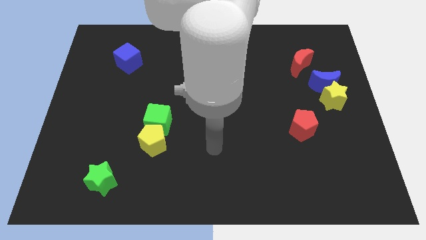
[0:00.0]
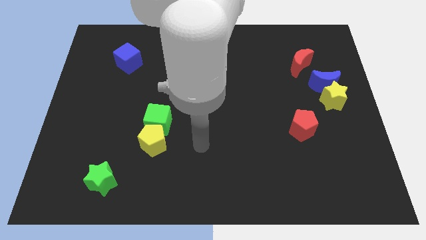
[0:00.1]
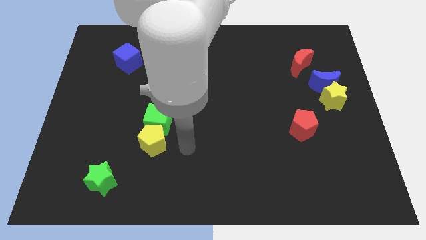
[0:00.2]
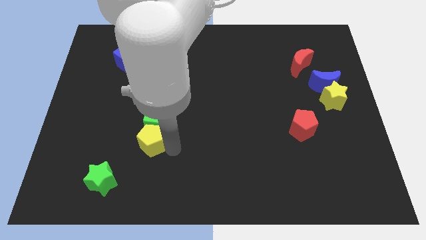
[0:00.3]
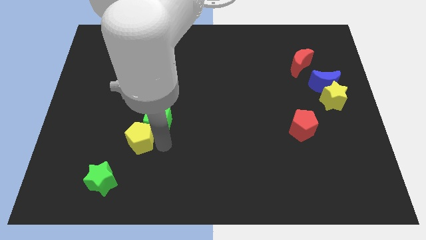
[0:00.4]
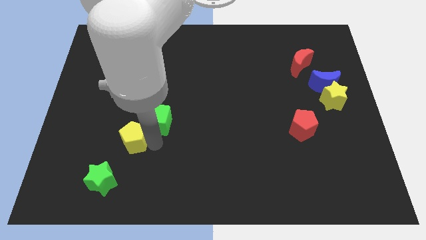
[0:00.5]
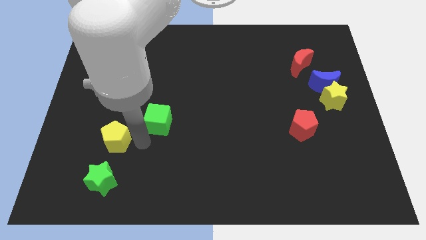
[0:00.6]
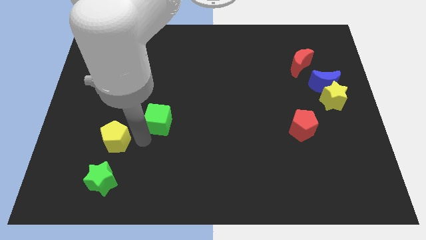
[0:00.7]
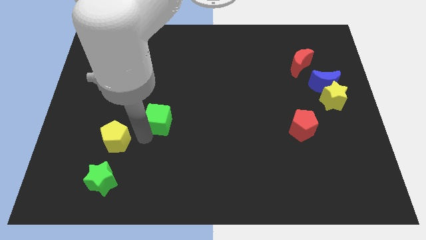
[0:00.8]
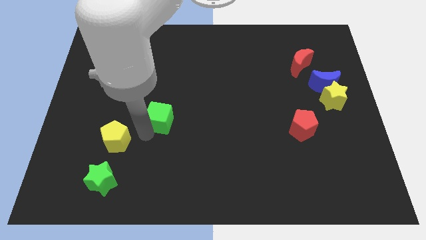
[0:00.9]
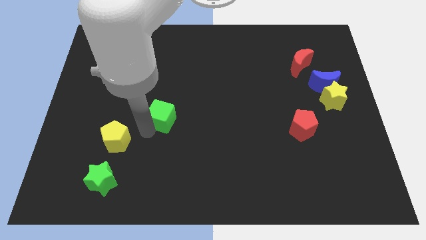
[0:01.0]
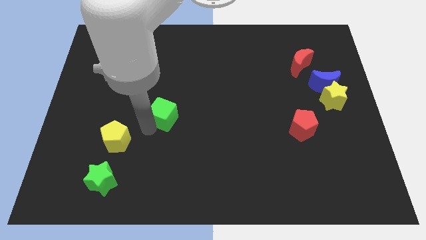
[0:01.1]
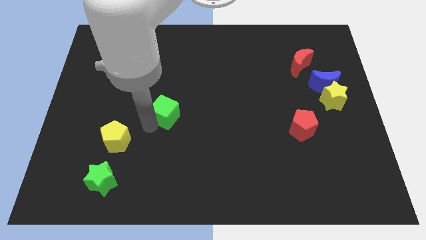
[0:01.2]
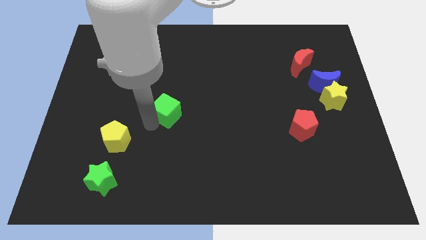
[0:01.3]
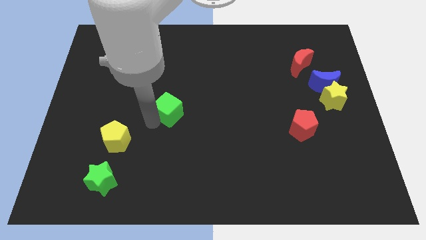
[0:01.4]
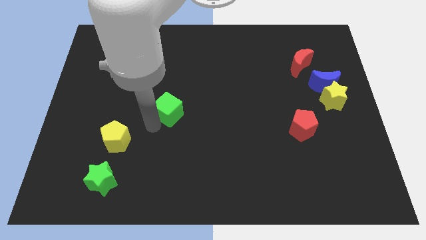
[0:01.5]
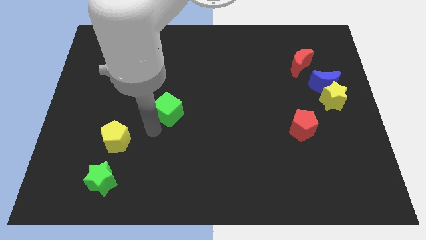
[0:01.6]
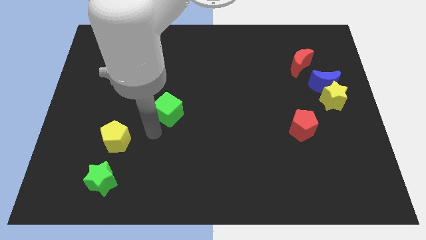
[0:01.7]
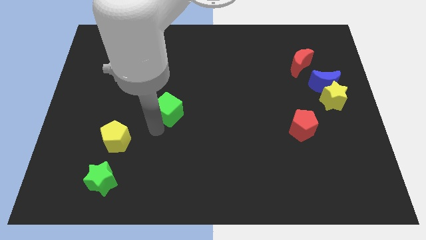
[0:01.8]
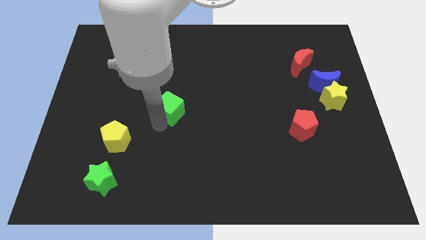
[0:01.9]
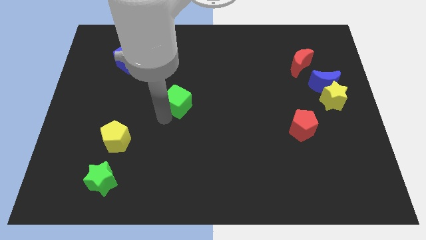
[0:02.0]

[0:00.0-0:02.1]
slide the green cube upwards and then right a little

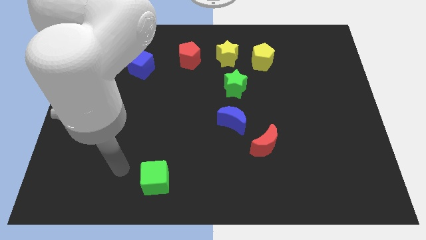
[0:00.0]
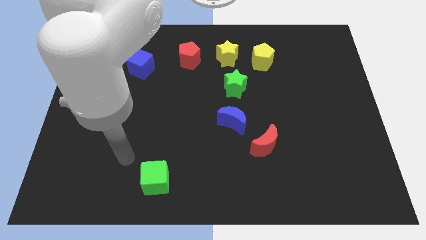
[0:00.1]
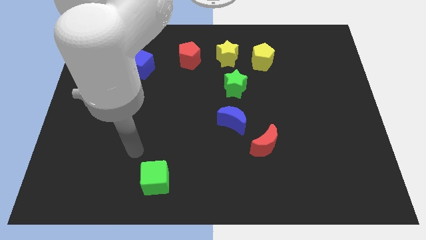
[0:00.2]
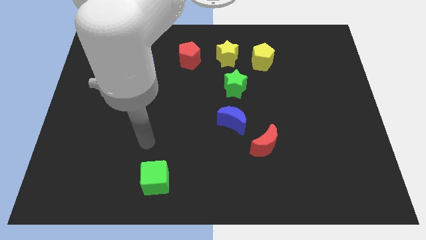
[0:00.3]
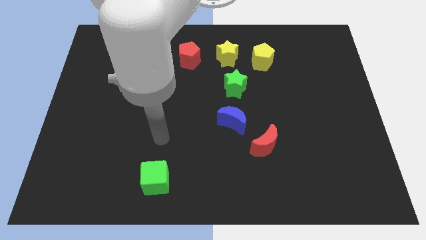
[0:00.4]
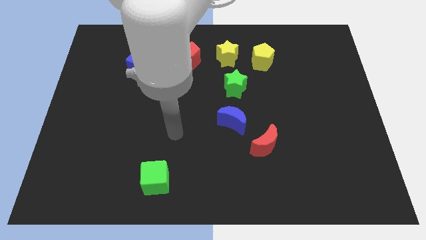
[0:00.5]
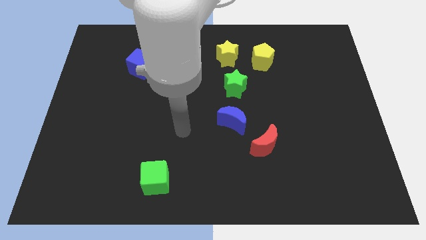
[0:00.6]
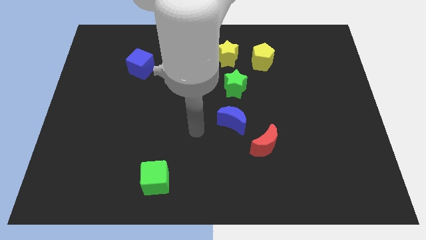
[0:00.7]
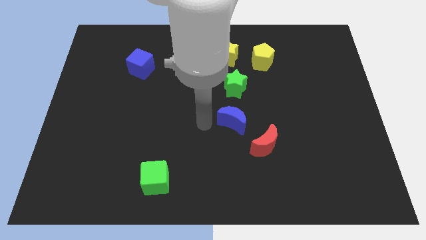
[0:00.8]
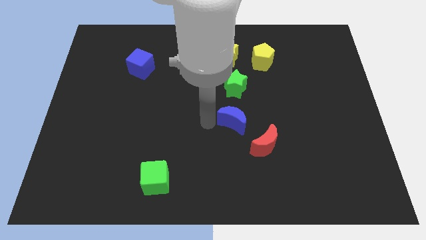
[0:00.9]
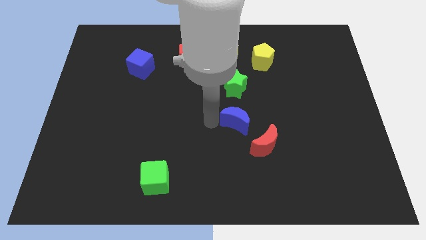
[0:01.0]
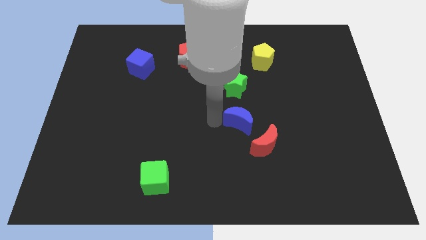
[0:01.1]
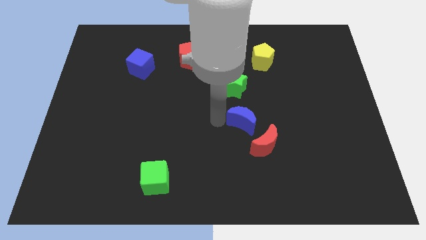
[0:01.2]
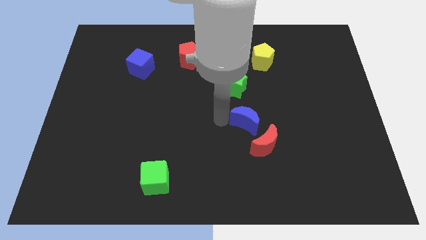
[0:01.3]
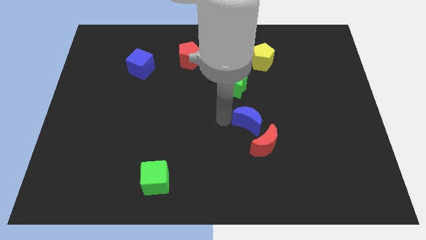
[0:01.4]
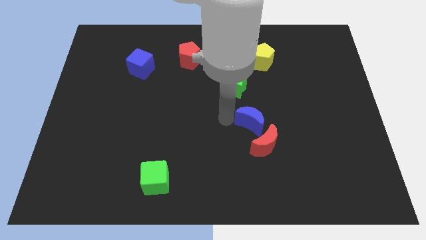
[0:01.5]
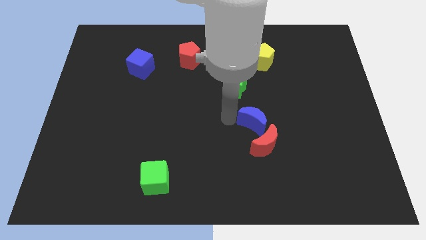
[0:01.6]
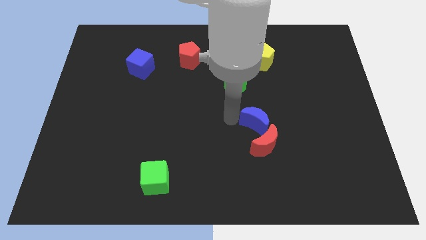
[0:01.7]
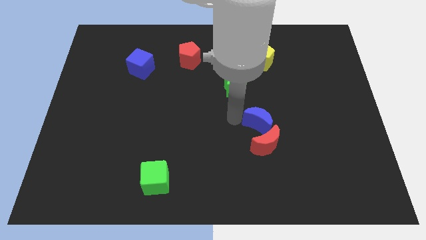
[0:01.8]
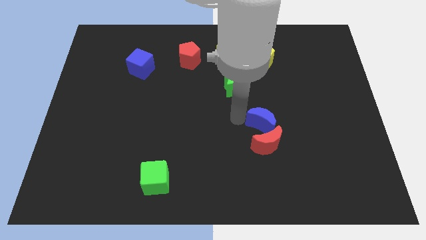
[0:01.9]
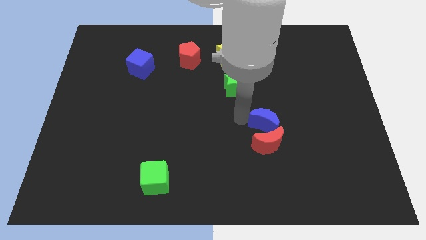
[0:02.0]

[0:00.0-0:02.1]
move the blue moon somewhat right

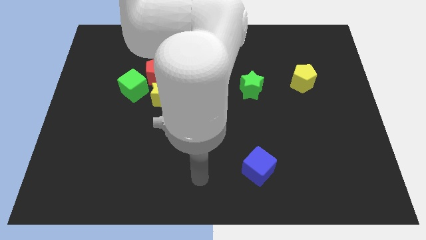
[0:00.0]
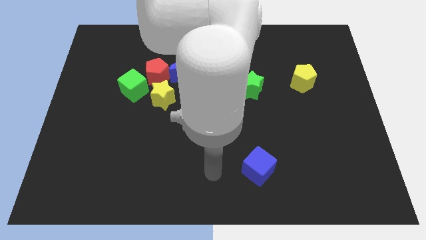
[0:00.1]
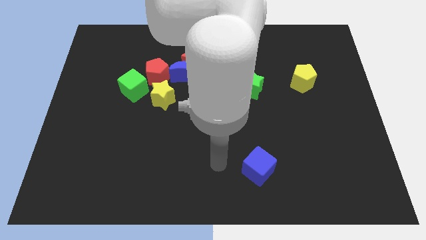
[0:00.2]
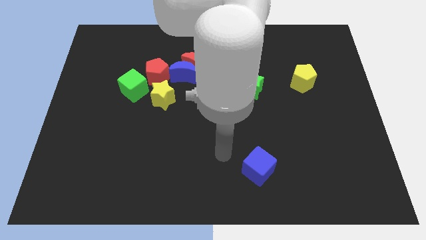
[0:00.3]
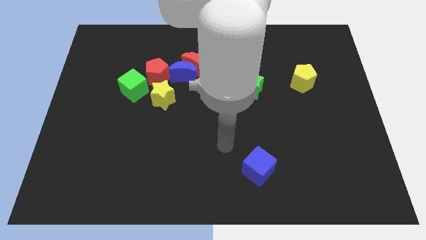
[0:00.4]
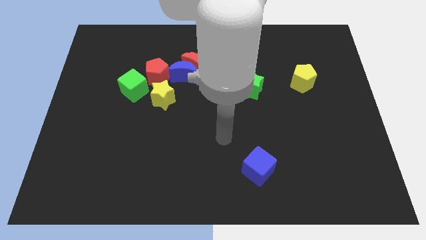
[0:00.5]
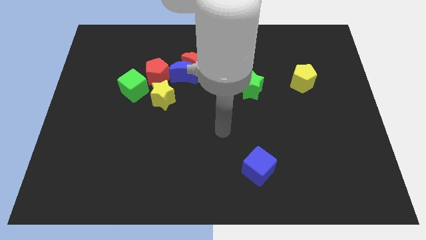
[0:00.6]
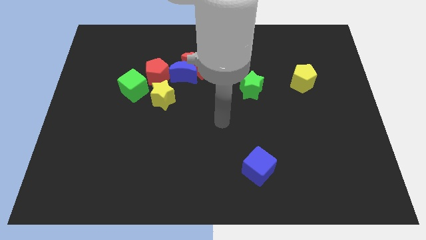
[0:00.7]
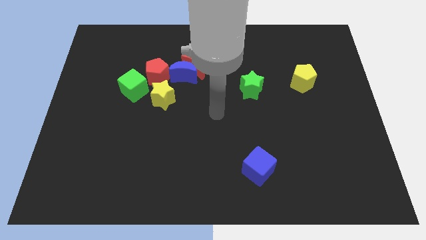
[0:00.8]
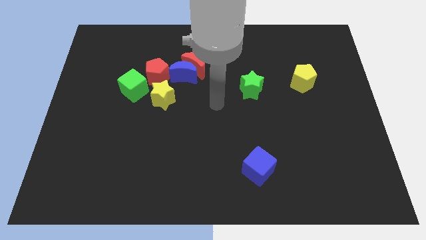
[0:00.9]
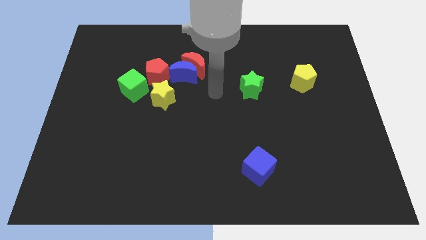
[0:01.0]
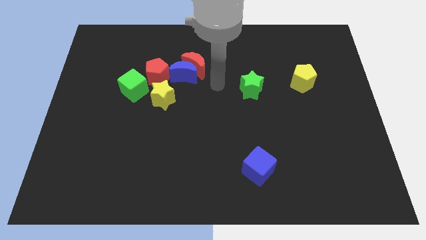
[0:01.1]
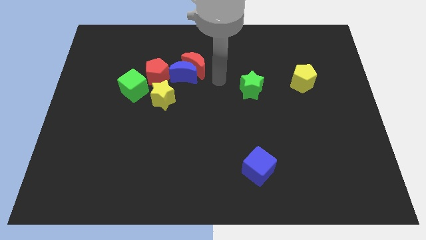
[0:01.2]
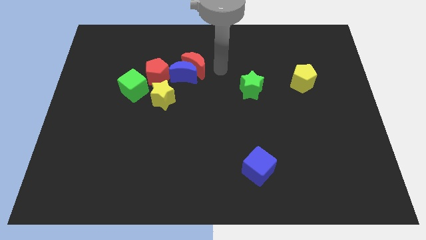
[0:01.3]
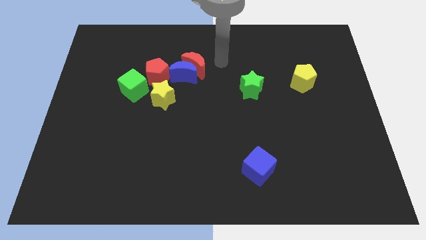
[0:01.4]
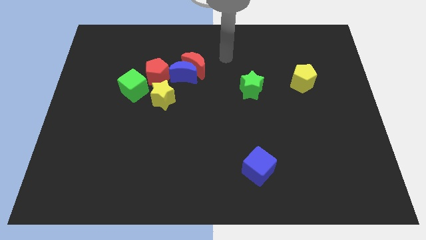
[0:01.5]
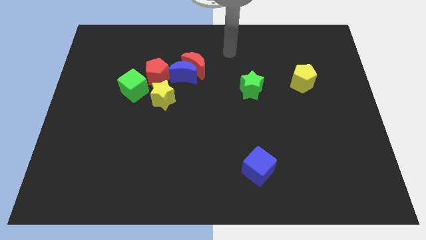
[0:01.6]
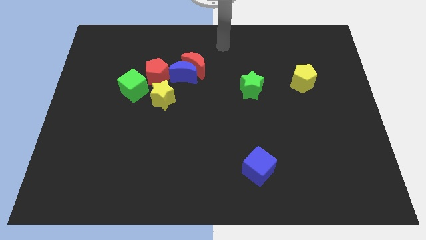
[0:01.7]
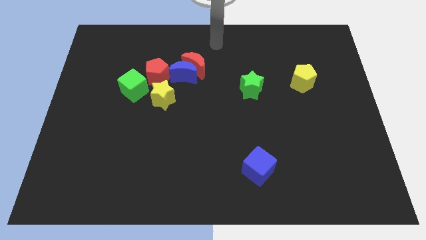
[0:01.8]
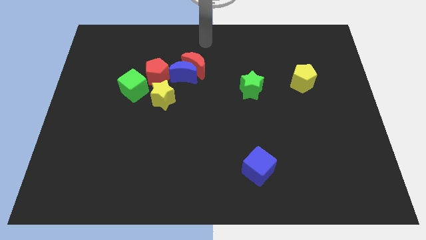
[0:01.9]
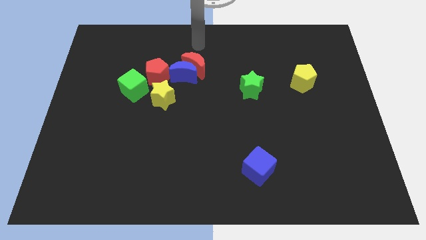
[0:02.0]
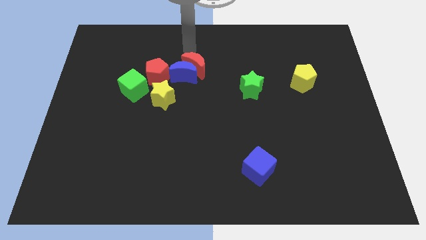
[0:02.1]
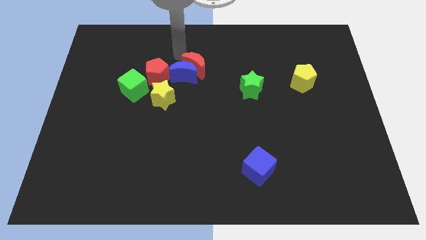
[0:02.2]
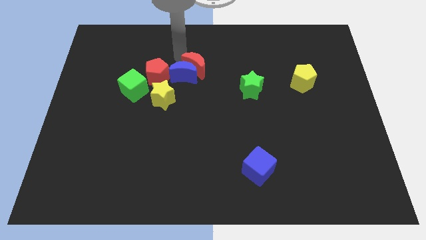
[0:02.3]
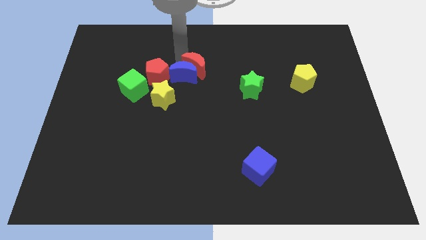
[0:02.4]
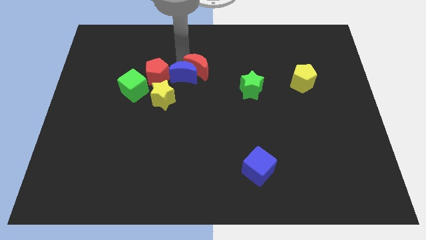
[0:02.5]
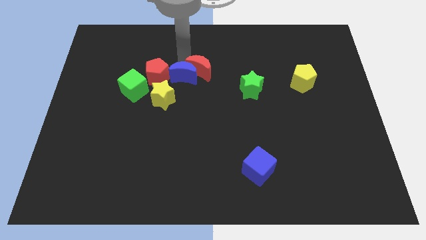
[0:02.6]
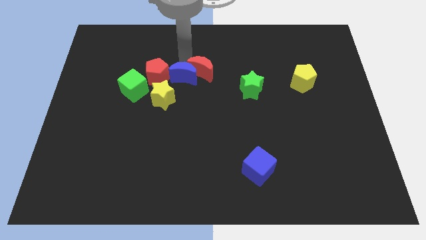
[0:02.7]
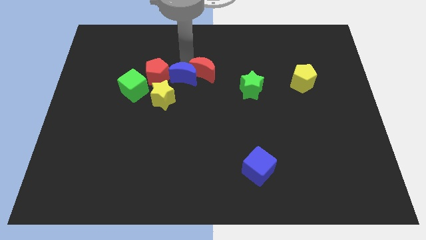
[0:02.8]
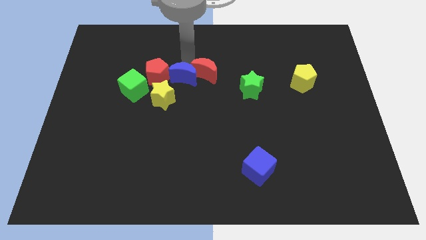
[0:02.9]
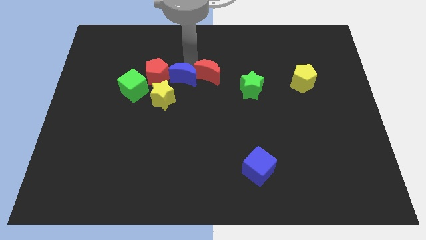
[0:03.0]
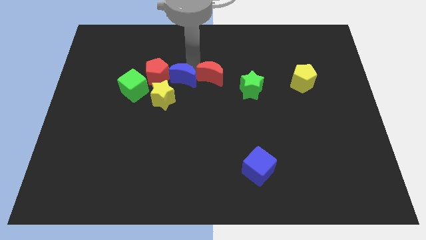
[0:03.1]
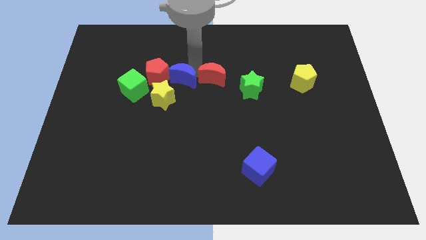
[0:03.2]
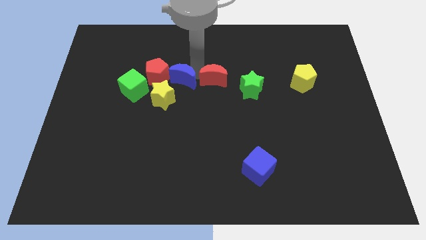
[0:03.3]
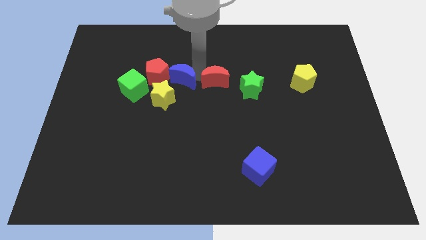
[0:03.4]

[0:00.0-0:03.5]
slightly move the red moon downwards and then to the right

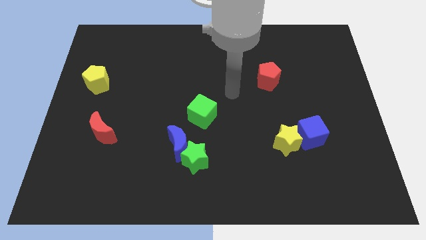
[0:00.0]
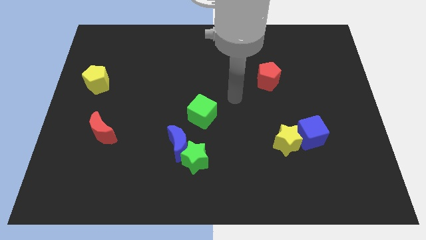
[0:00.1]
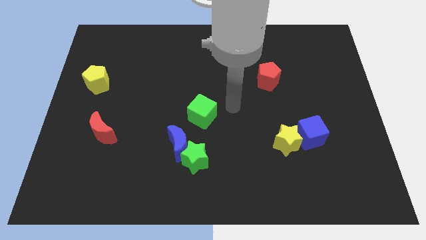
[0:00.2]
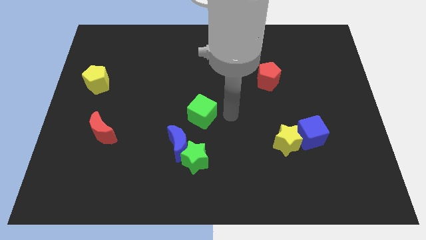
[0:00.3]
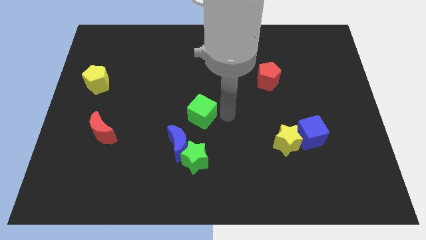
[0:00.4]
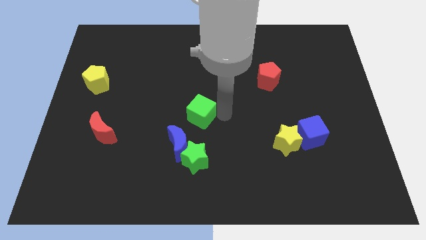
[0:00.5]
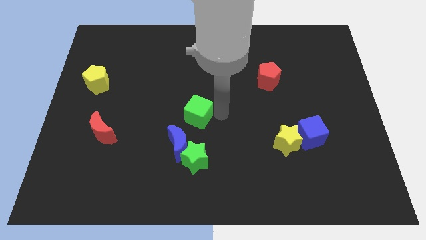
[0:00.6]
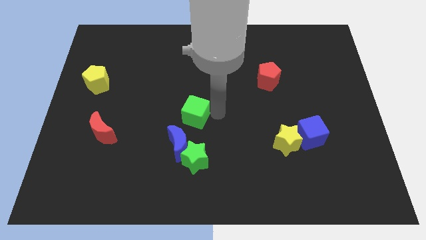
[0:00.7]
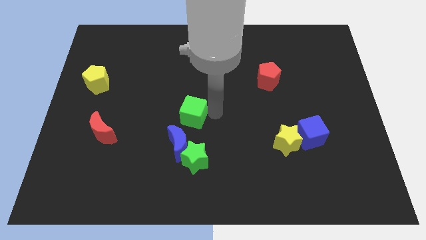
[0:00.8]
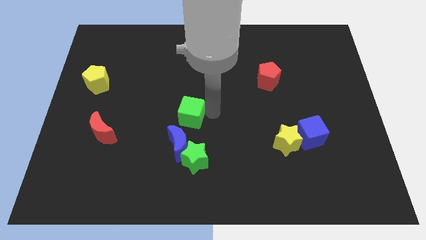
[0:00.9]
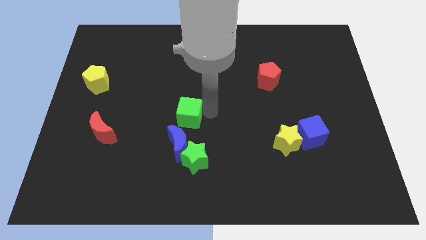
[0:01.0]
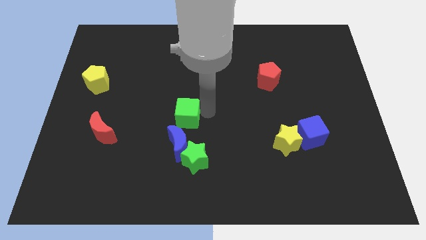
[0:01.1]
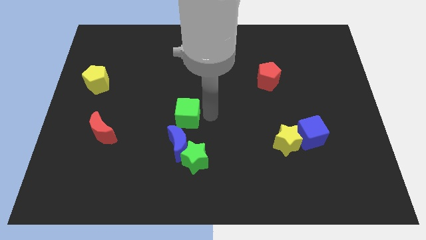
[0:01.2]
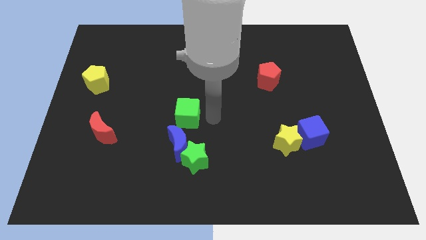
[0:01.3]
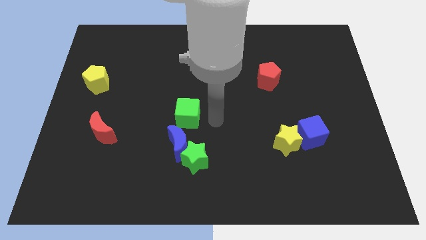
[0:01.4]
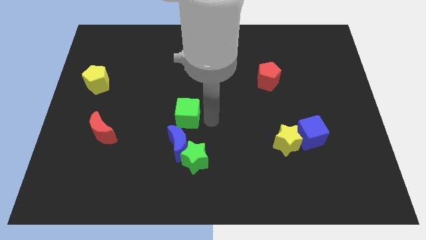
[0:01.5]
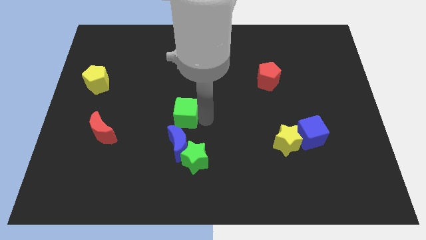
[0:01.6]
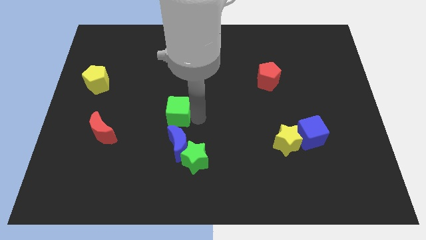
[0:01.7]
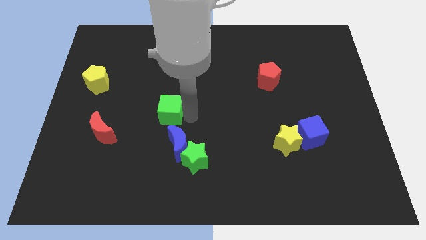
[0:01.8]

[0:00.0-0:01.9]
slightly move the green cube to the left
